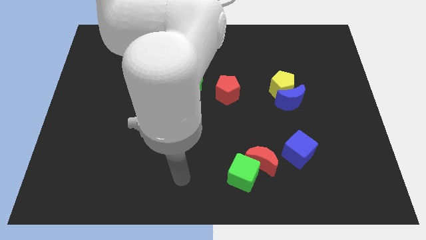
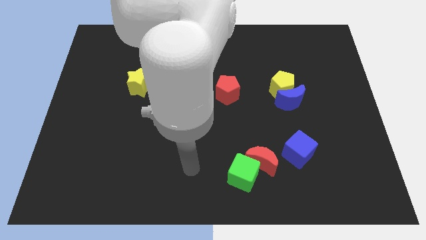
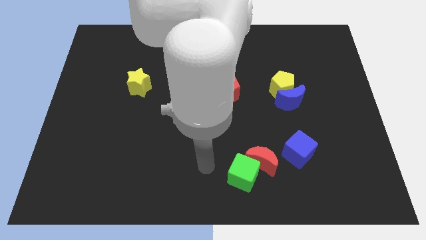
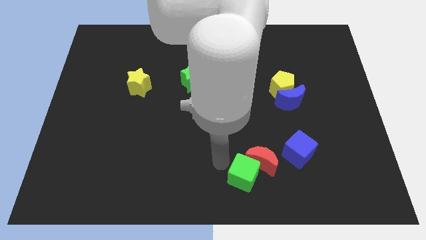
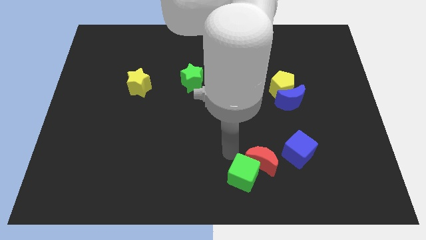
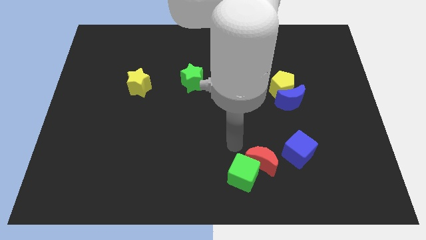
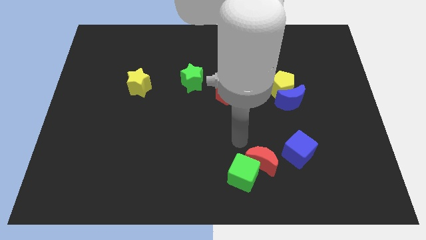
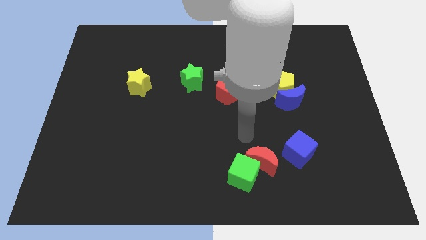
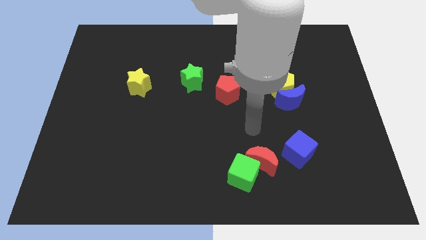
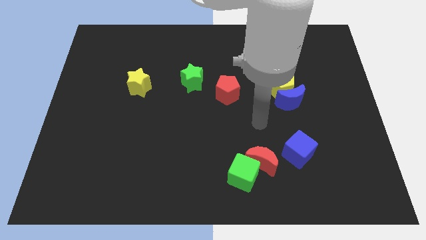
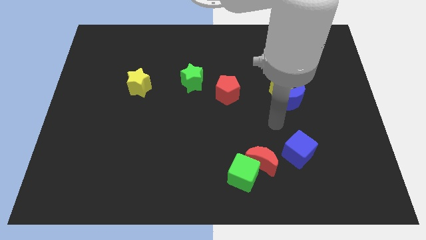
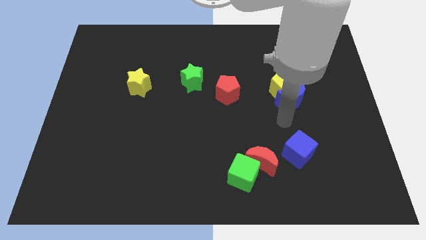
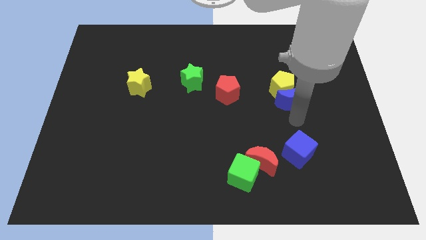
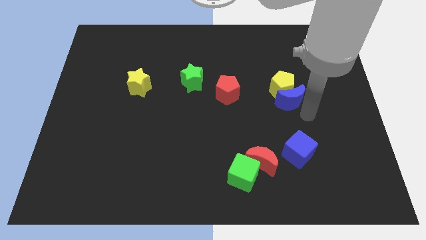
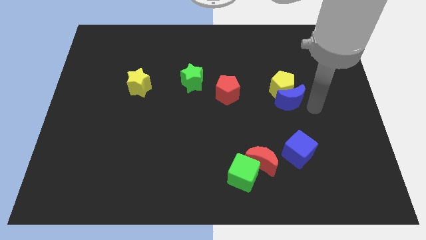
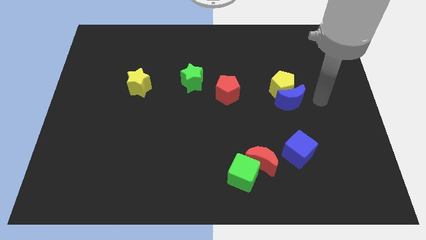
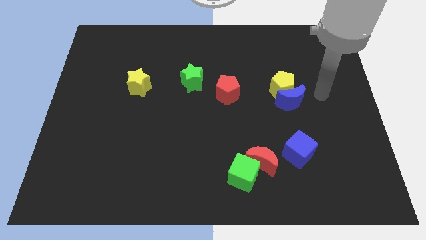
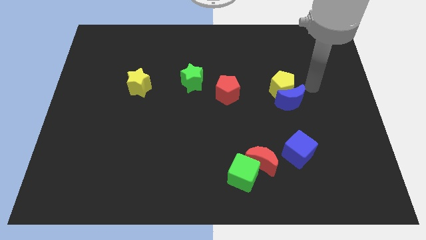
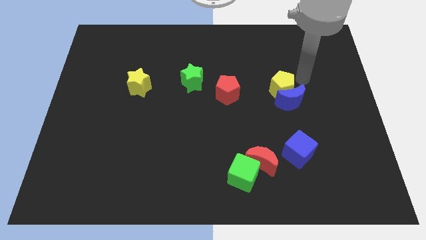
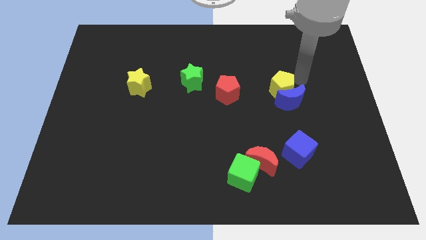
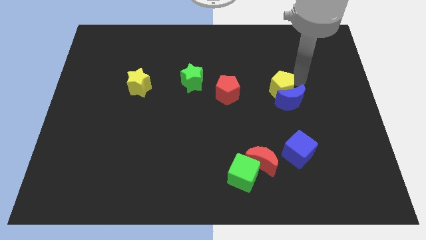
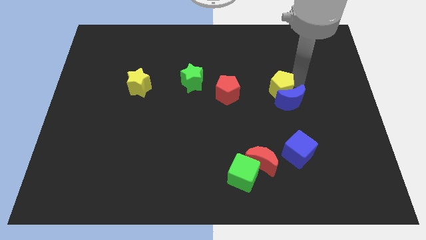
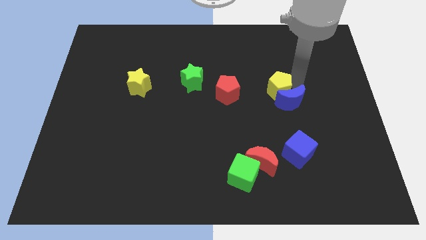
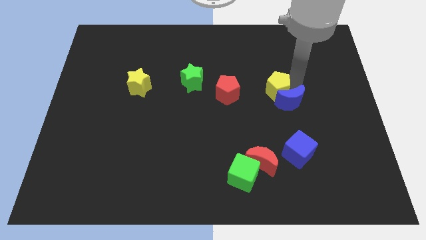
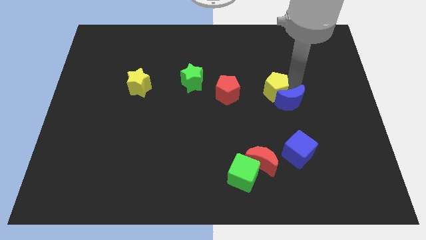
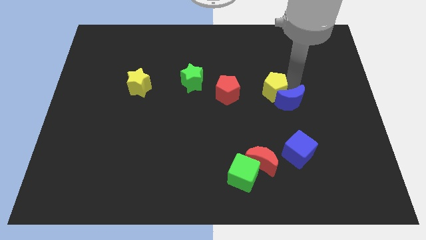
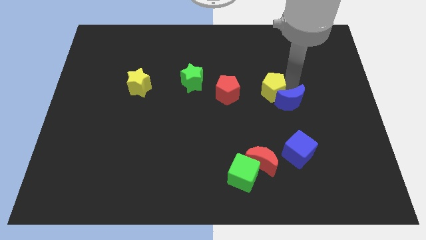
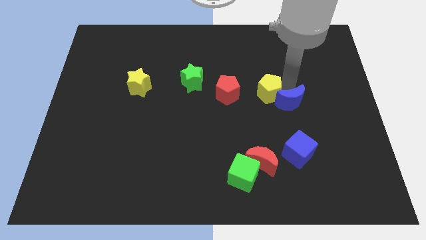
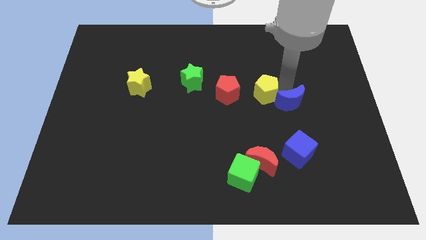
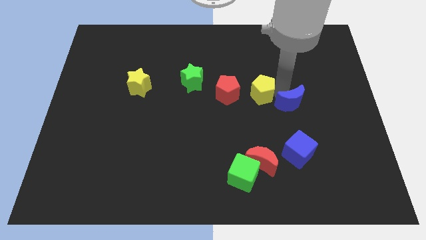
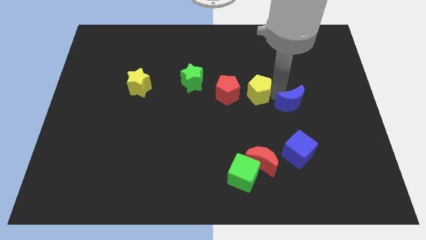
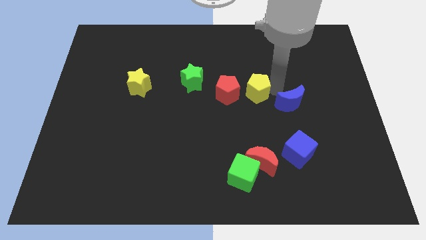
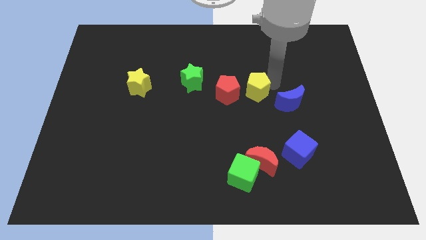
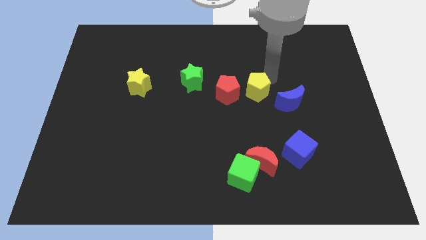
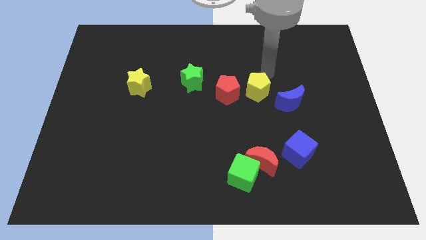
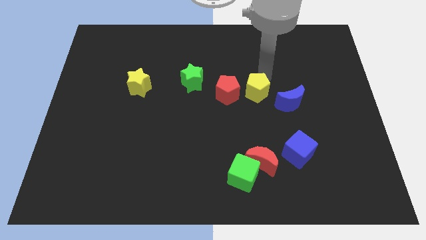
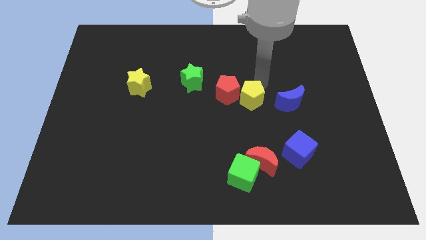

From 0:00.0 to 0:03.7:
move the yellow pentagon down and to the left a little bit

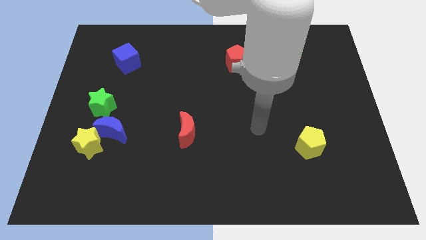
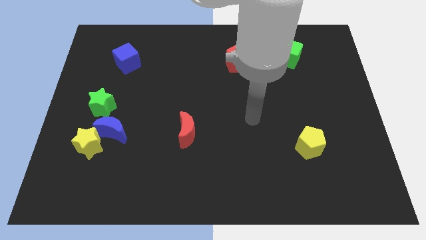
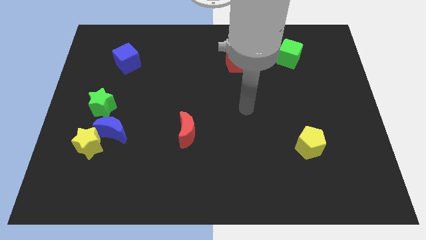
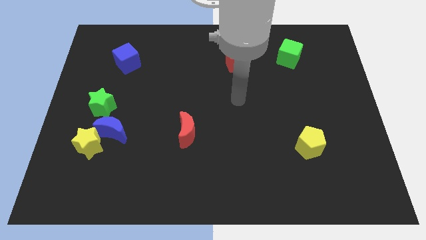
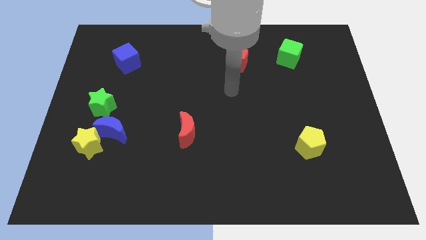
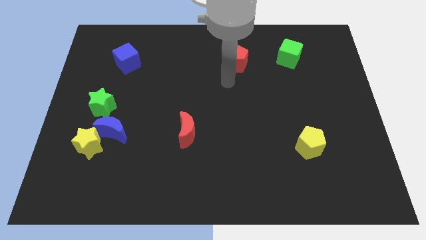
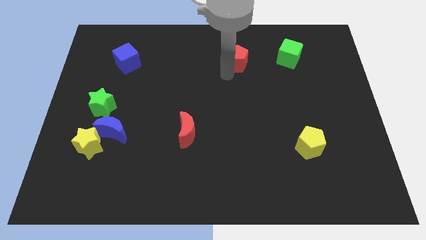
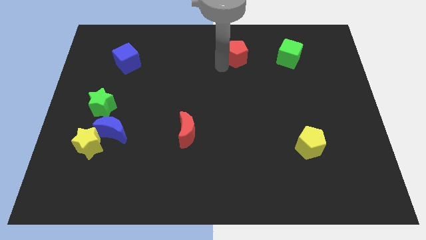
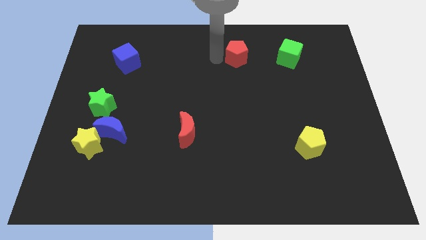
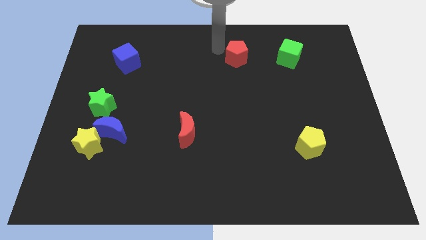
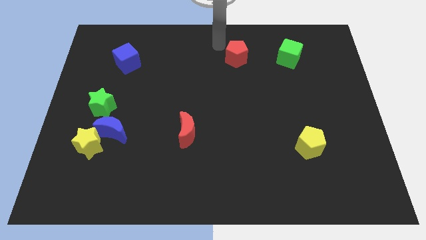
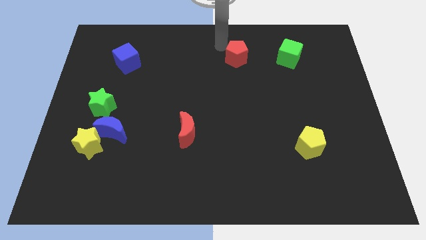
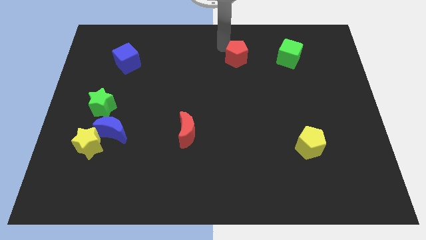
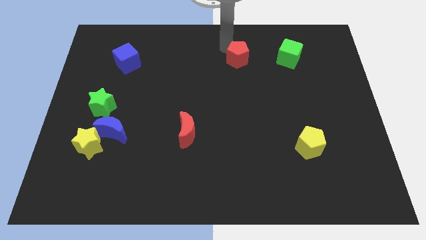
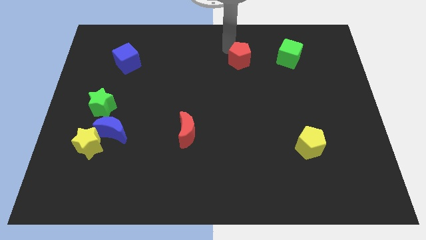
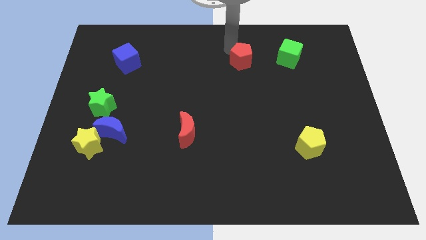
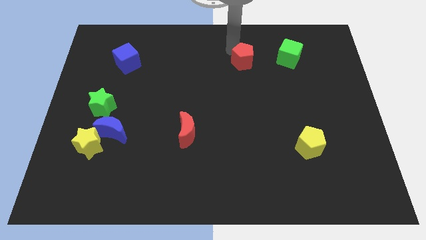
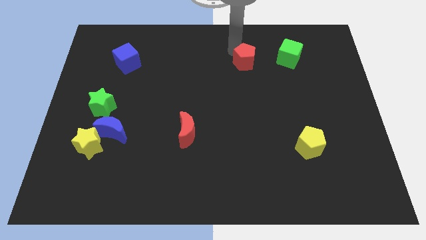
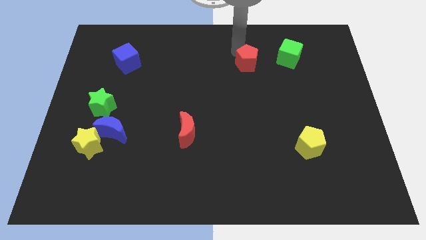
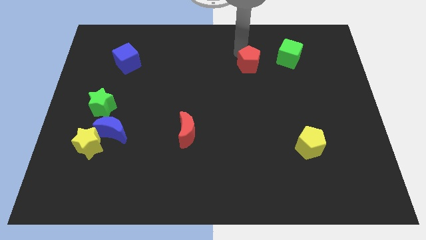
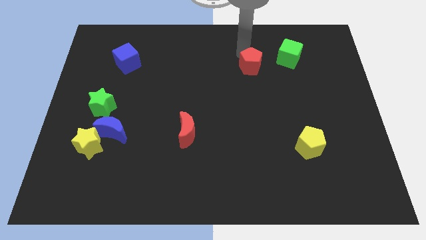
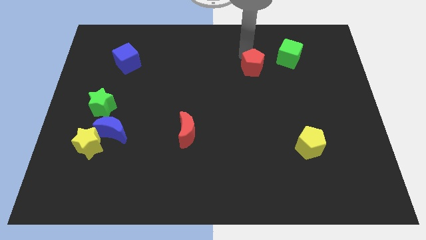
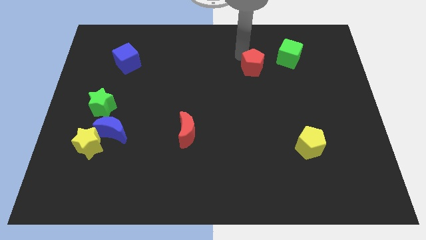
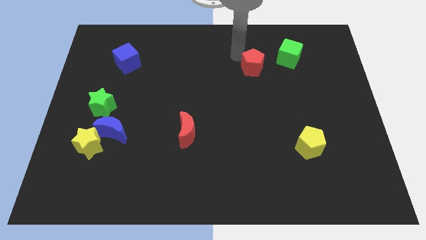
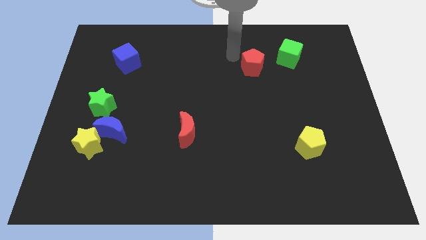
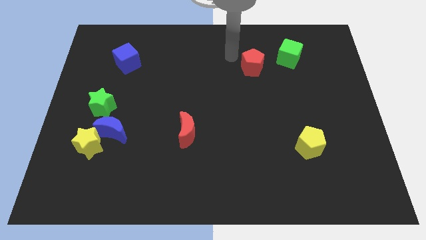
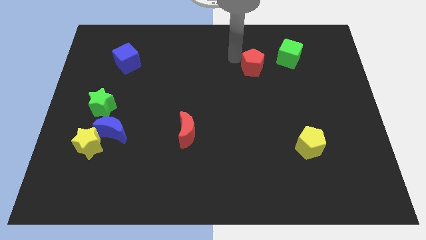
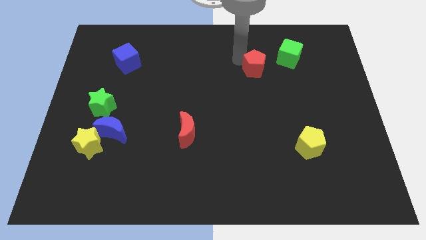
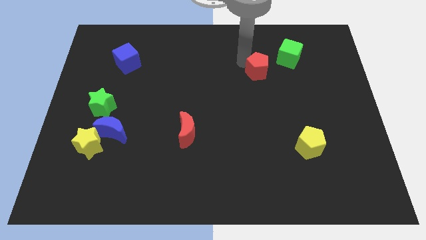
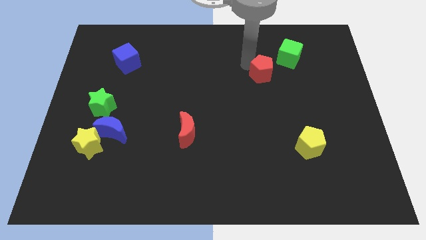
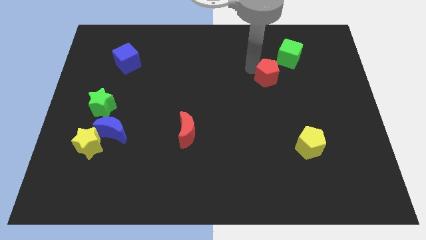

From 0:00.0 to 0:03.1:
slightly move the red pentagon to the right

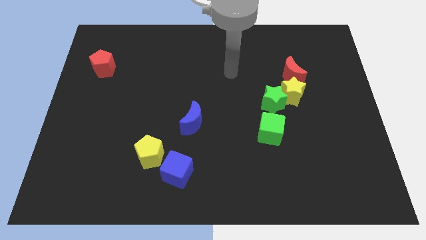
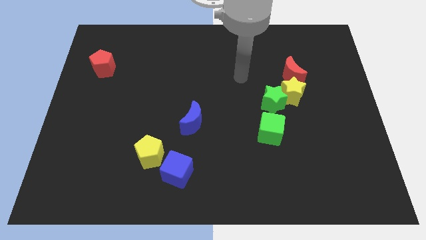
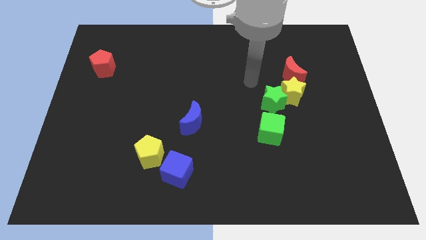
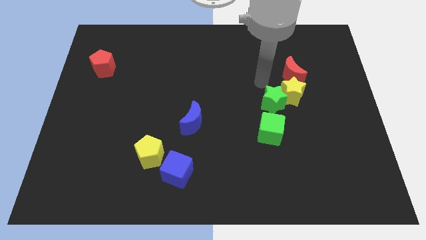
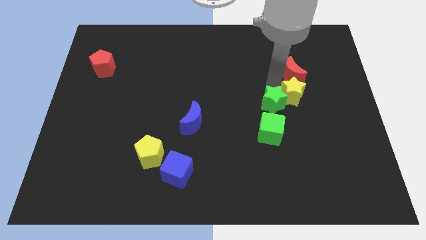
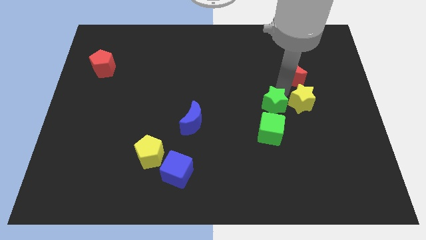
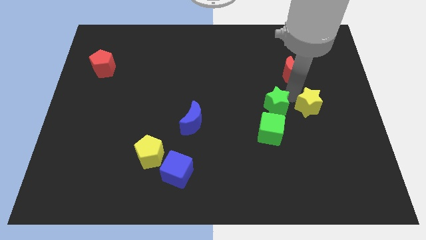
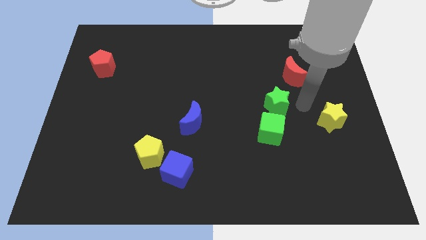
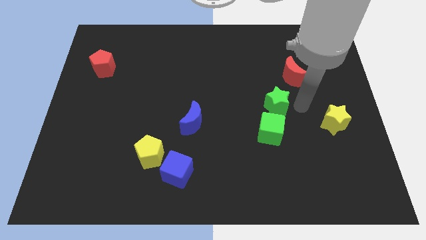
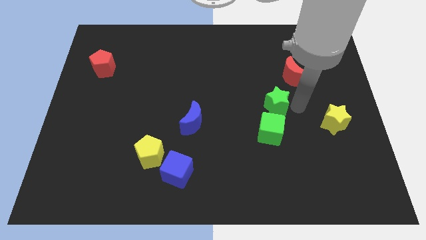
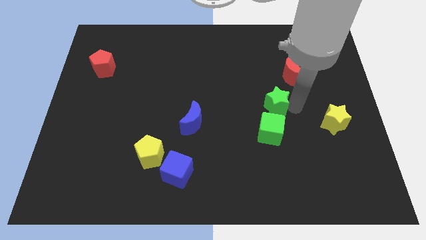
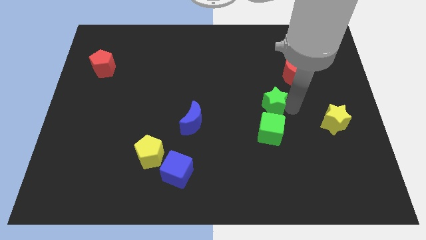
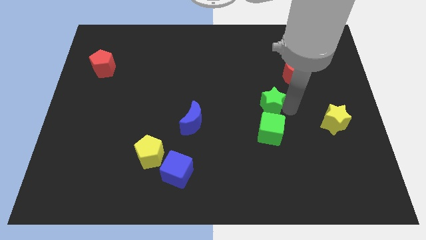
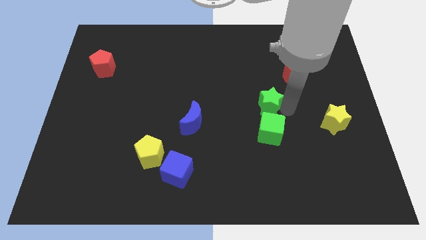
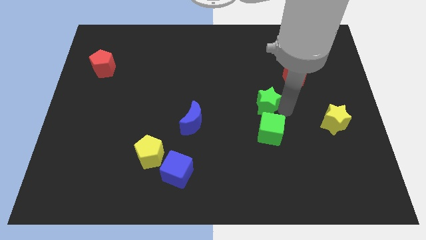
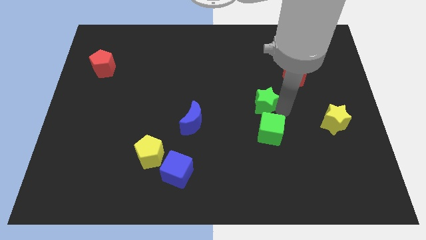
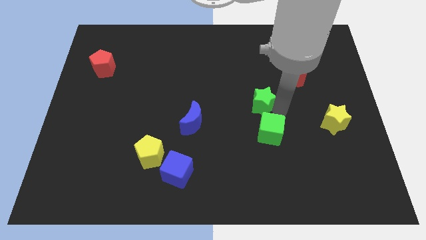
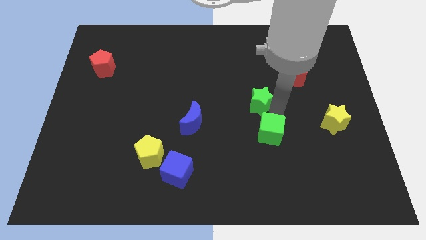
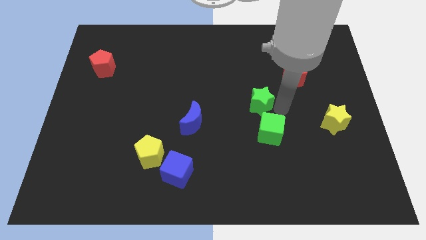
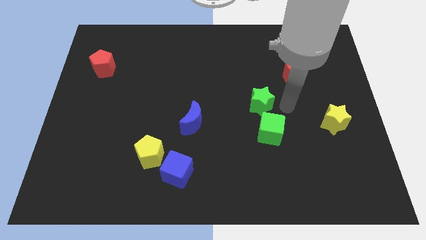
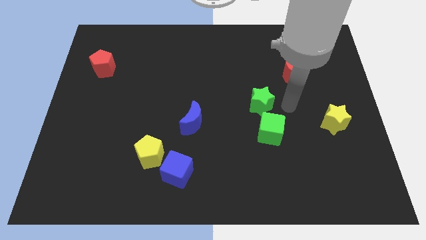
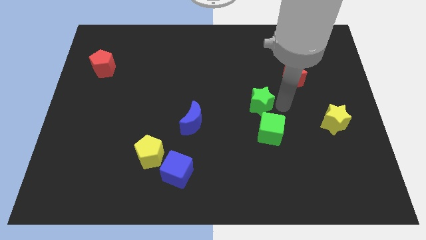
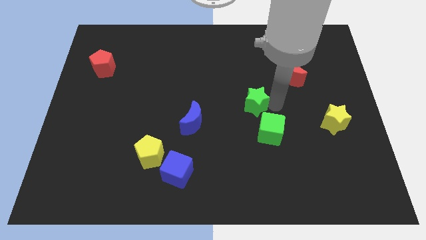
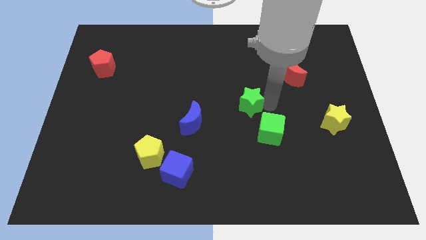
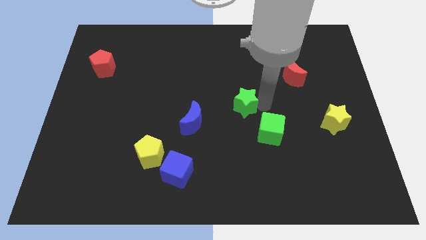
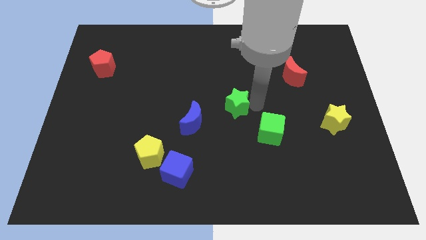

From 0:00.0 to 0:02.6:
slide the green star a little bit left
